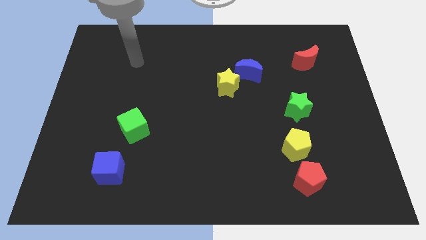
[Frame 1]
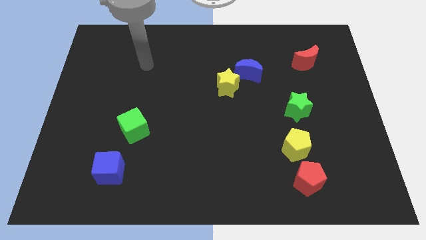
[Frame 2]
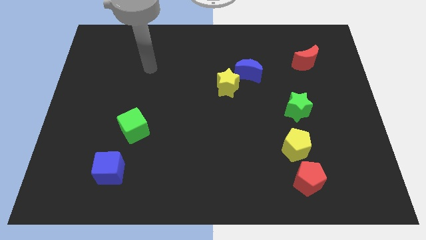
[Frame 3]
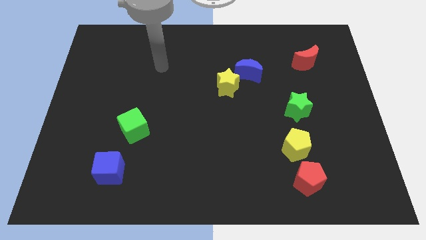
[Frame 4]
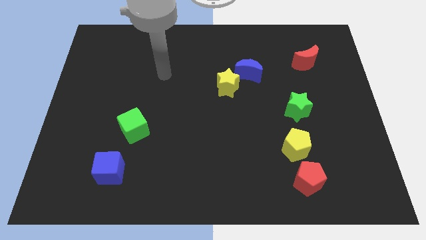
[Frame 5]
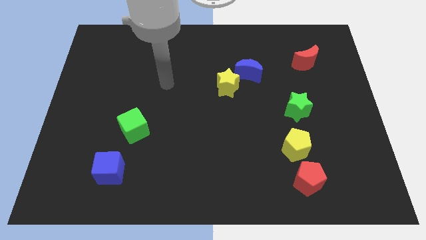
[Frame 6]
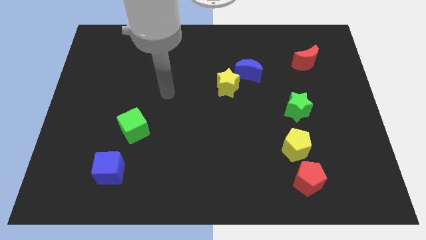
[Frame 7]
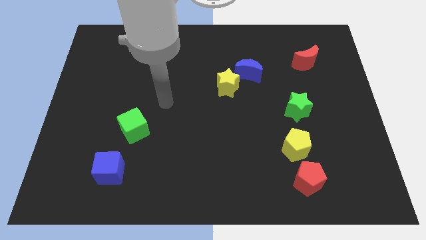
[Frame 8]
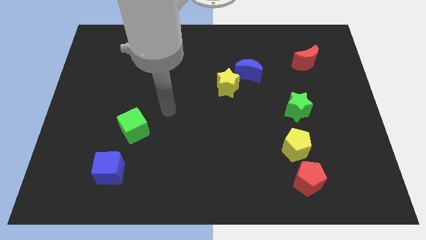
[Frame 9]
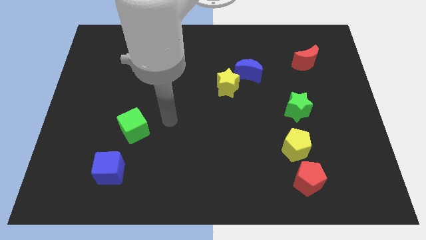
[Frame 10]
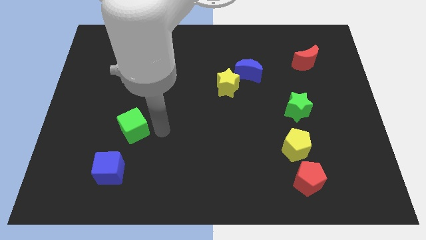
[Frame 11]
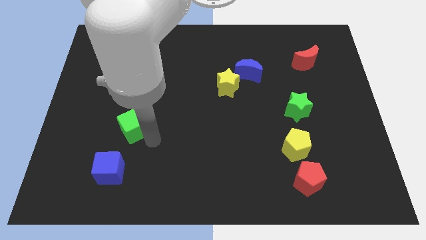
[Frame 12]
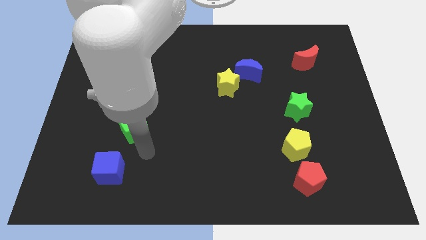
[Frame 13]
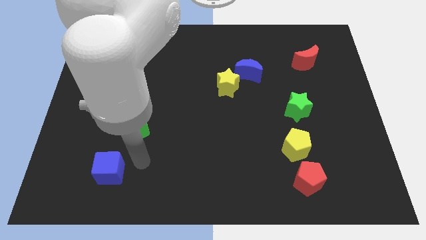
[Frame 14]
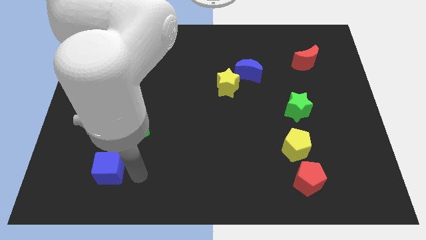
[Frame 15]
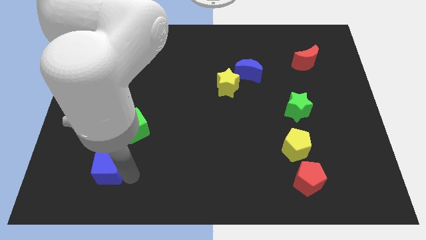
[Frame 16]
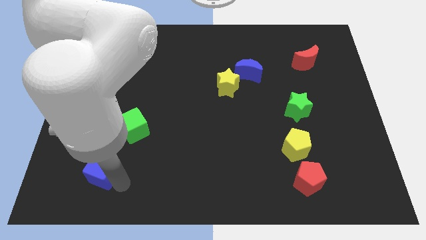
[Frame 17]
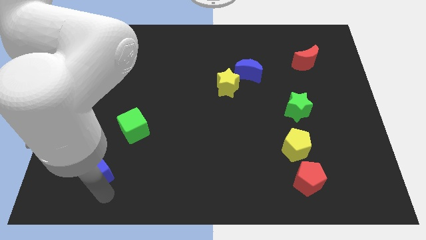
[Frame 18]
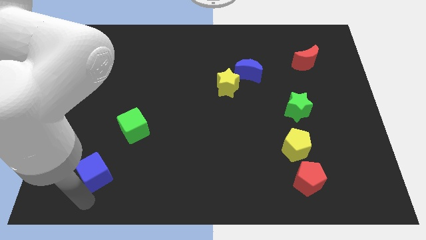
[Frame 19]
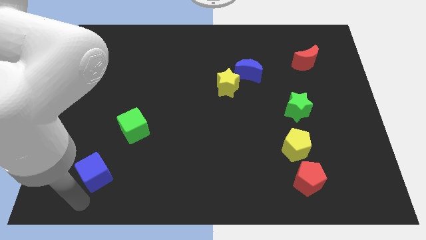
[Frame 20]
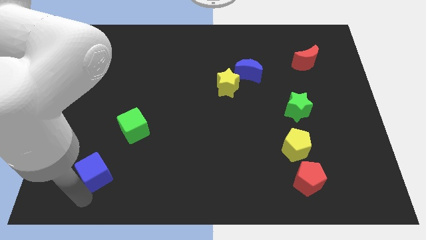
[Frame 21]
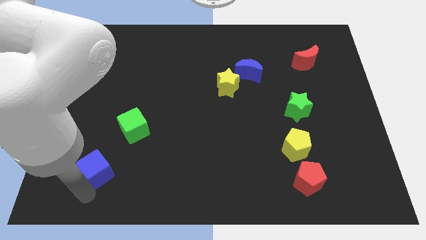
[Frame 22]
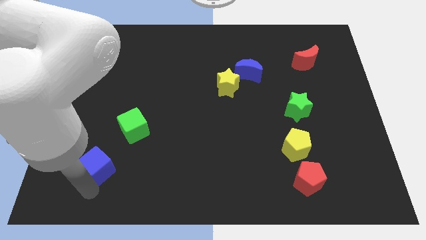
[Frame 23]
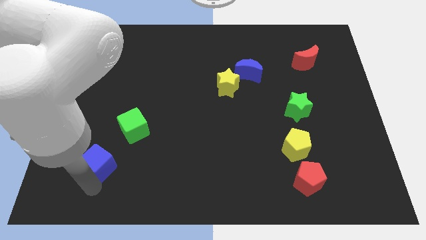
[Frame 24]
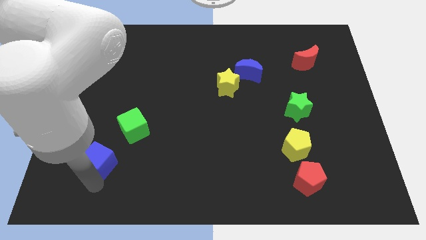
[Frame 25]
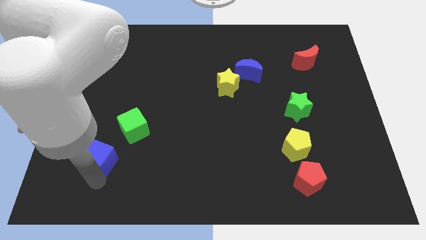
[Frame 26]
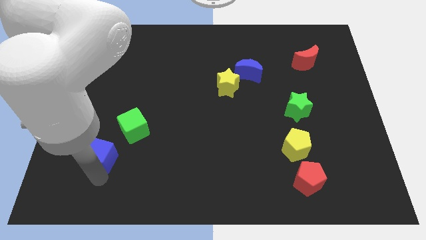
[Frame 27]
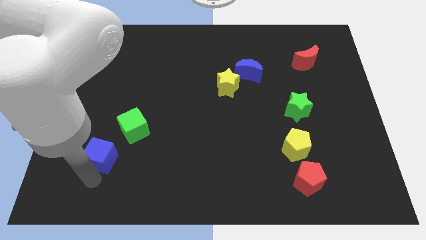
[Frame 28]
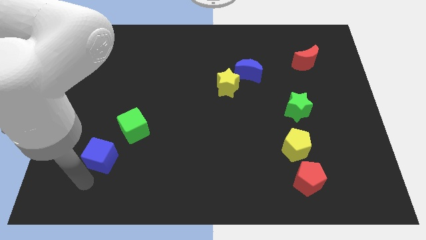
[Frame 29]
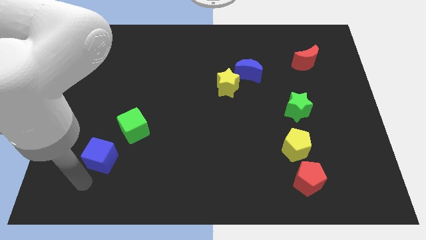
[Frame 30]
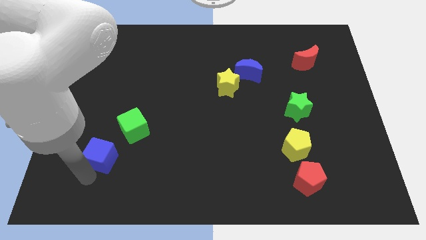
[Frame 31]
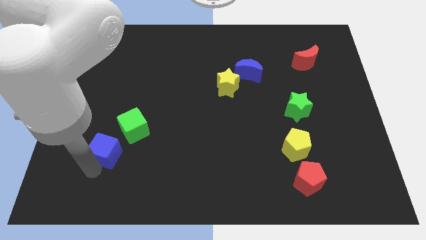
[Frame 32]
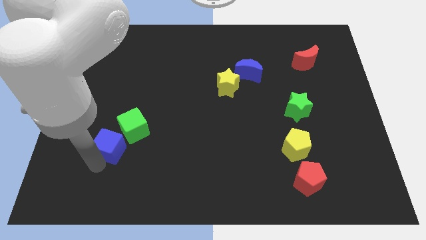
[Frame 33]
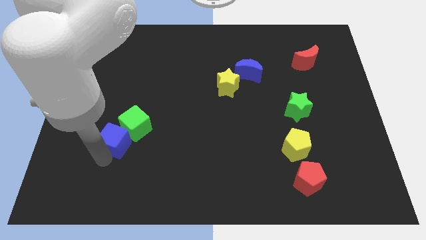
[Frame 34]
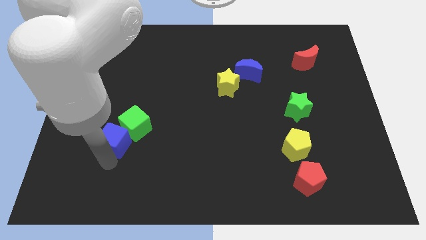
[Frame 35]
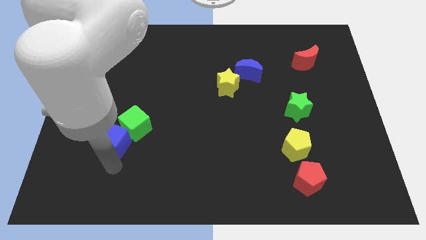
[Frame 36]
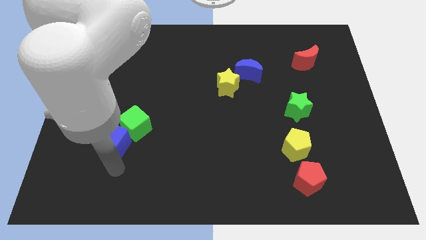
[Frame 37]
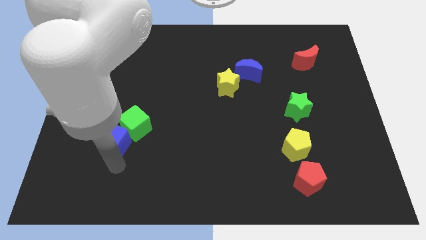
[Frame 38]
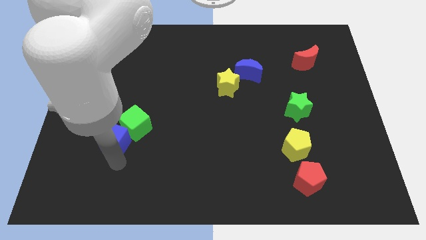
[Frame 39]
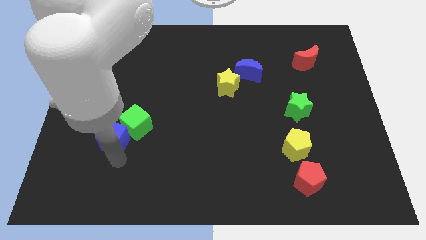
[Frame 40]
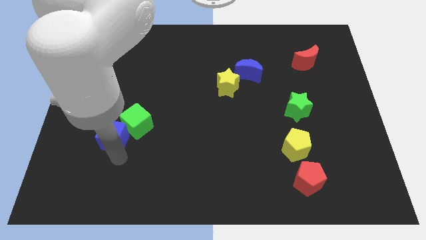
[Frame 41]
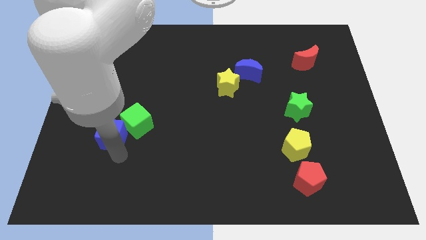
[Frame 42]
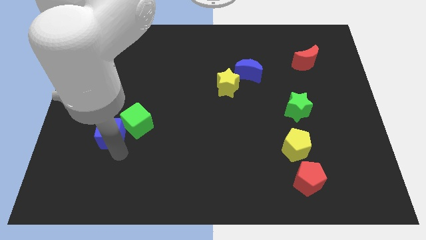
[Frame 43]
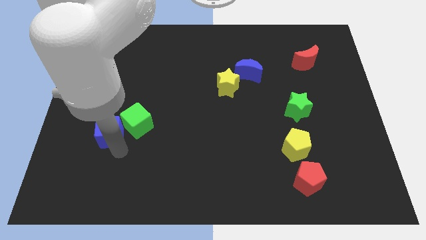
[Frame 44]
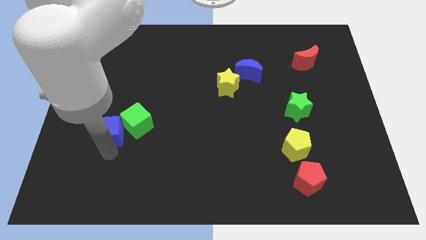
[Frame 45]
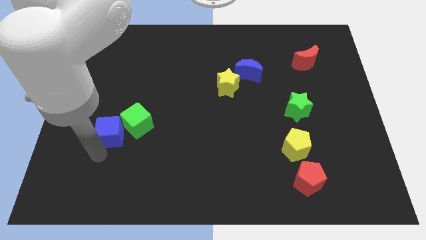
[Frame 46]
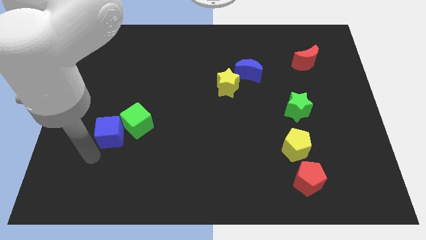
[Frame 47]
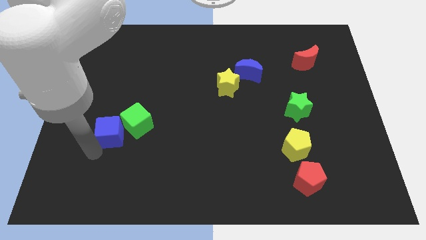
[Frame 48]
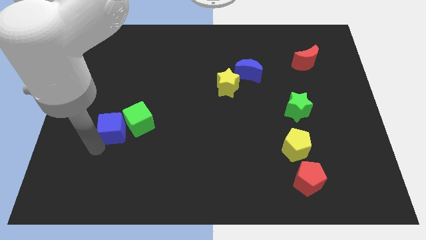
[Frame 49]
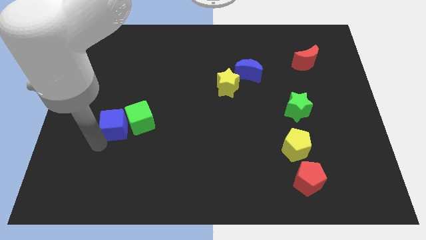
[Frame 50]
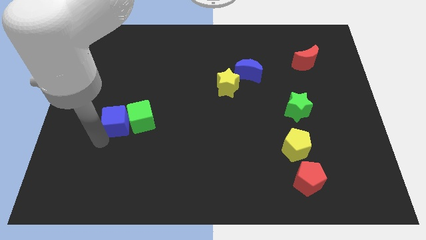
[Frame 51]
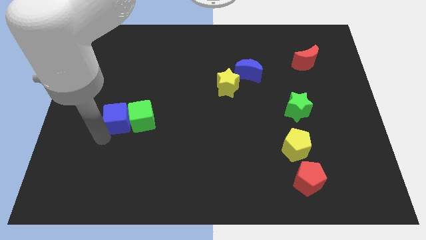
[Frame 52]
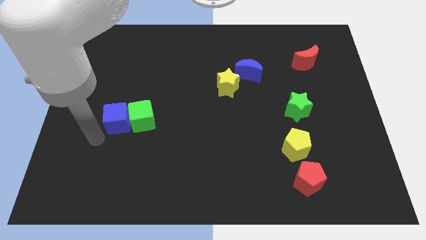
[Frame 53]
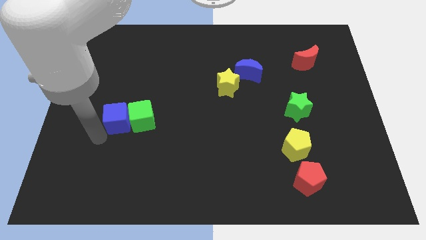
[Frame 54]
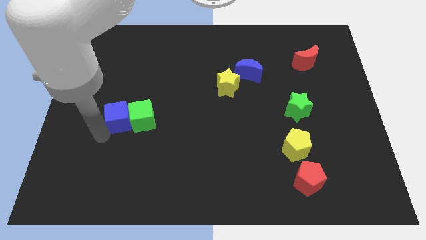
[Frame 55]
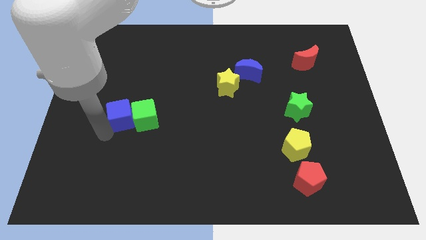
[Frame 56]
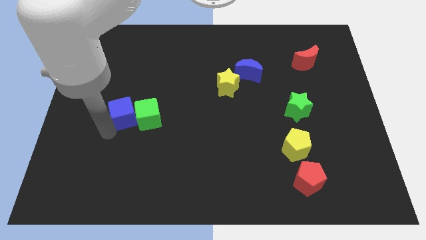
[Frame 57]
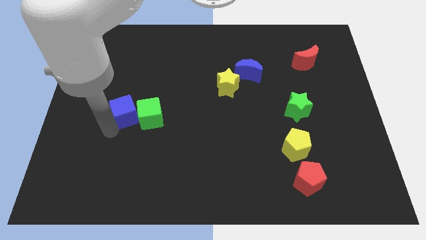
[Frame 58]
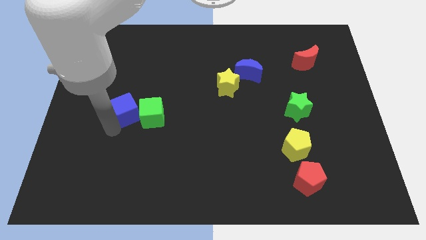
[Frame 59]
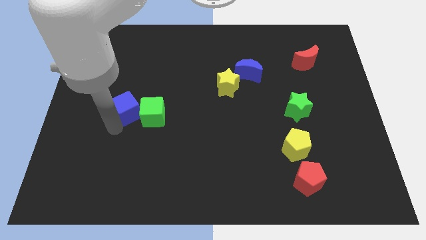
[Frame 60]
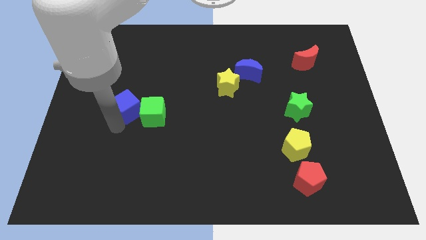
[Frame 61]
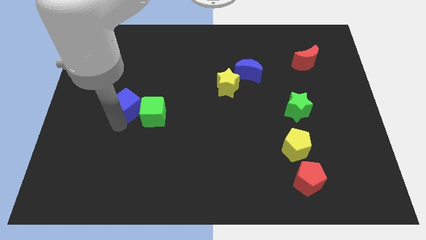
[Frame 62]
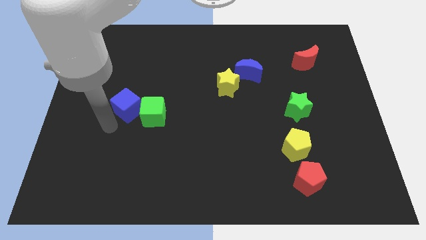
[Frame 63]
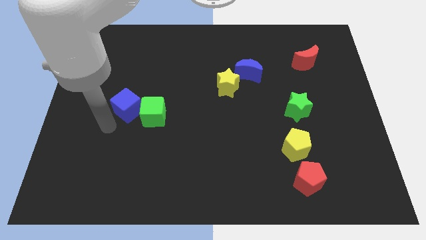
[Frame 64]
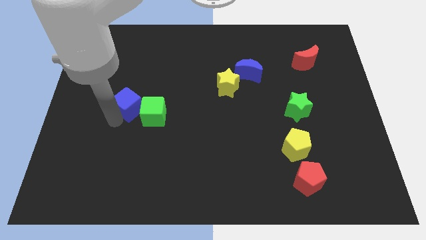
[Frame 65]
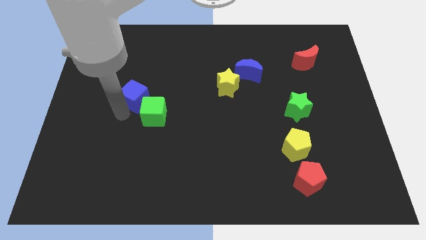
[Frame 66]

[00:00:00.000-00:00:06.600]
slide the blue cube to the top side of the green cube

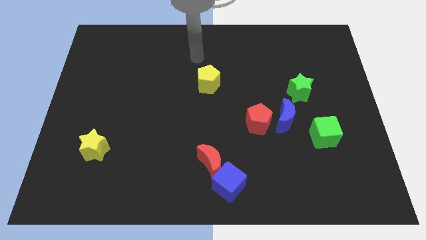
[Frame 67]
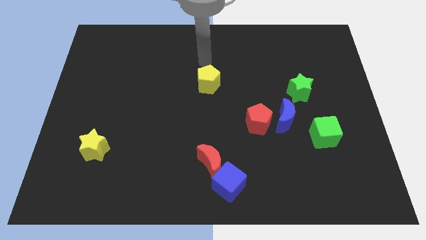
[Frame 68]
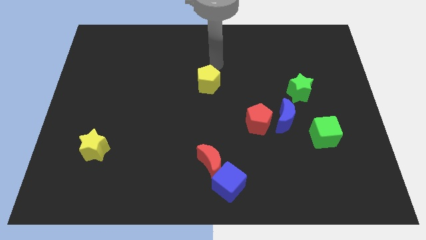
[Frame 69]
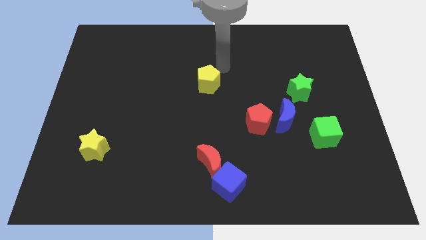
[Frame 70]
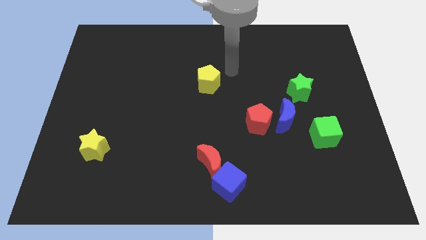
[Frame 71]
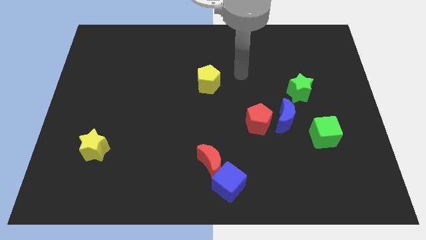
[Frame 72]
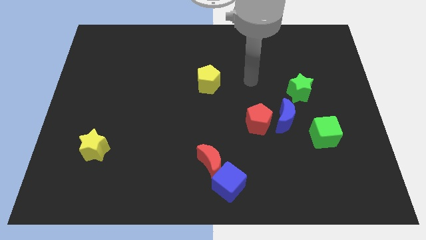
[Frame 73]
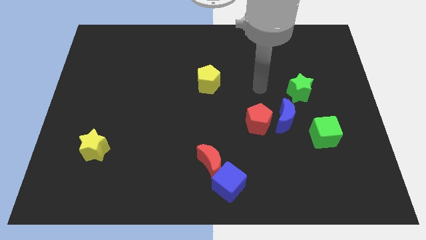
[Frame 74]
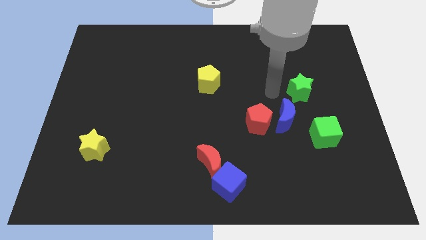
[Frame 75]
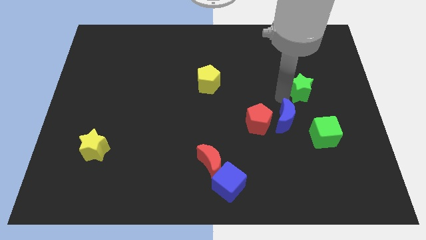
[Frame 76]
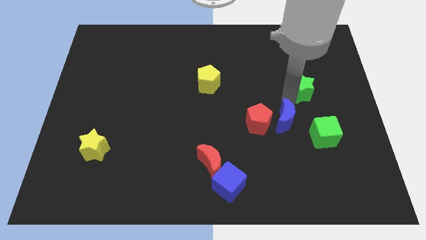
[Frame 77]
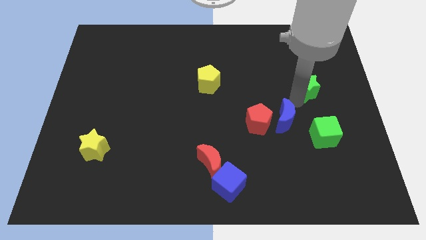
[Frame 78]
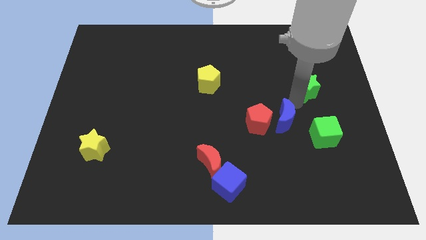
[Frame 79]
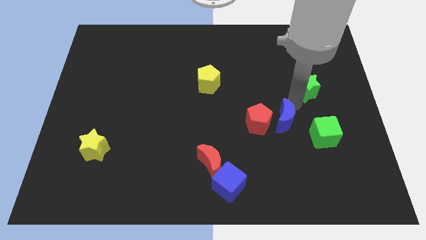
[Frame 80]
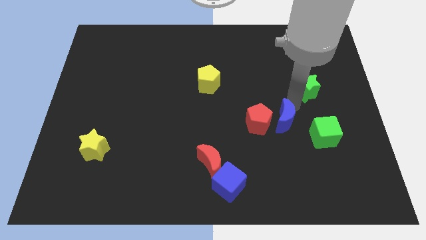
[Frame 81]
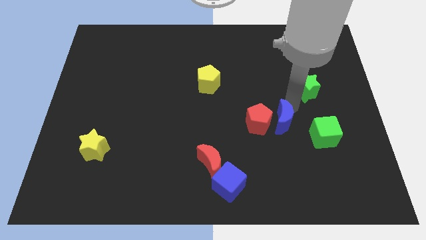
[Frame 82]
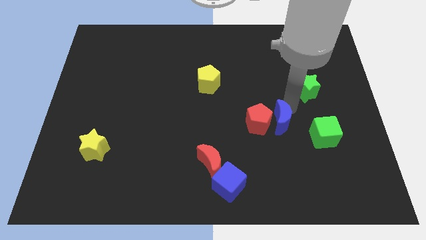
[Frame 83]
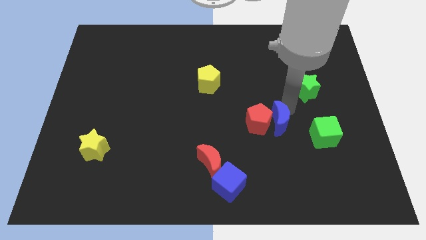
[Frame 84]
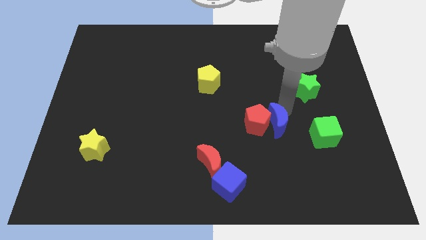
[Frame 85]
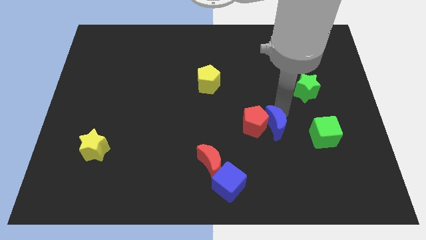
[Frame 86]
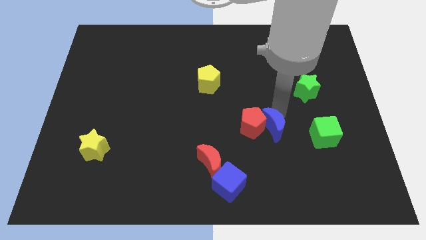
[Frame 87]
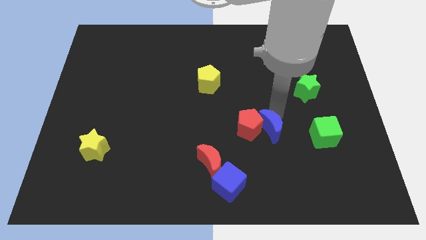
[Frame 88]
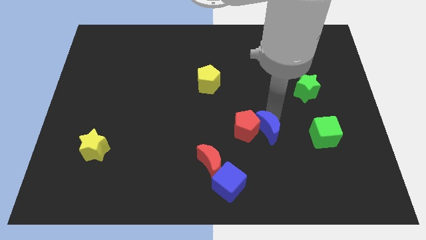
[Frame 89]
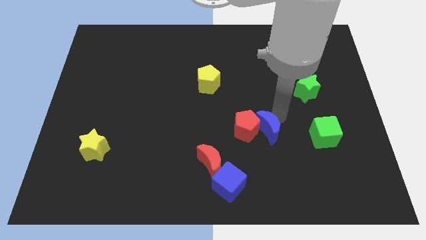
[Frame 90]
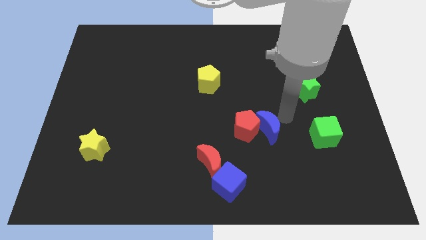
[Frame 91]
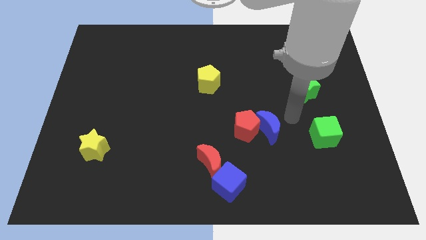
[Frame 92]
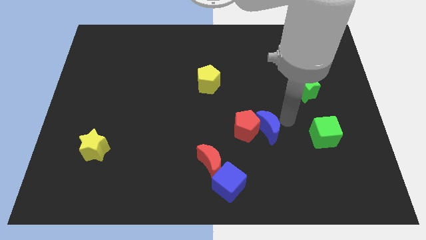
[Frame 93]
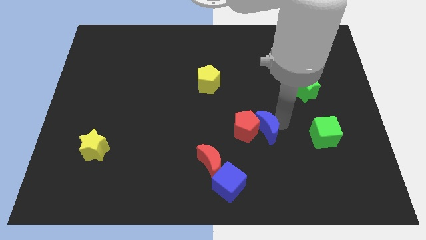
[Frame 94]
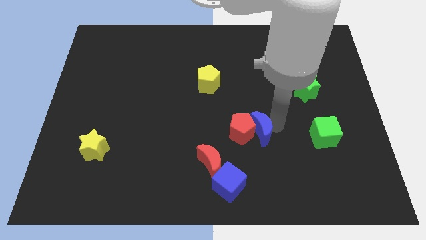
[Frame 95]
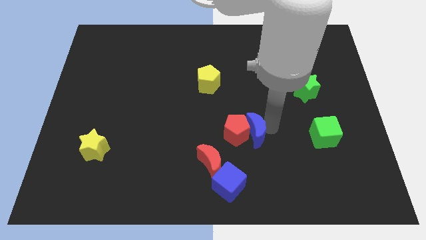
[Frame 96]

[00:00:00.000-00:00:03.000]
move the blue moon to the top right of the red moon
